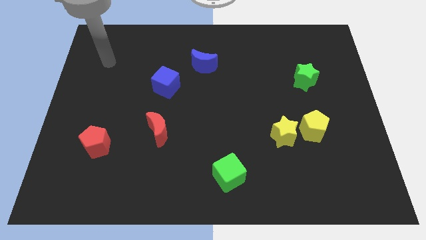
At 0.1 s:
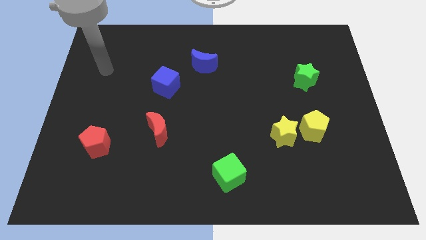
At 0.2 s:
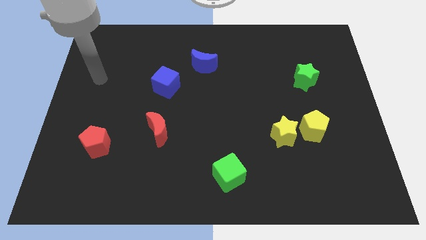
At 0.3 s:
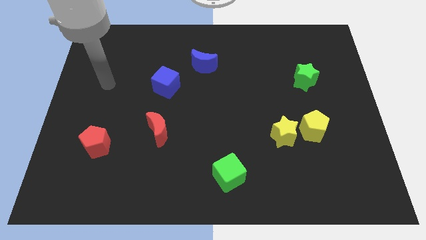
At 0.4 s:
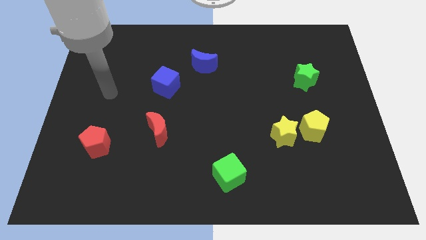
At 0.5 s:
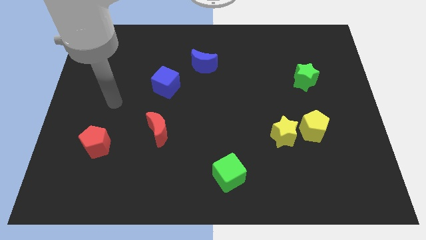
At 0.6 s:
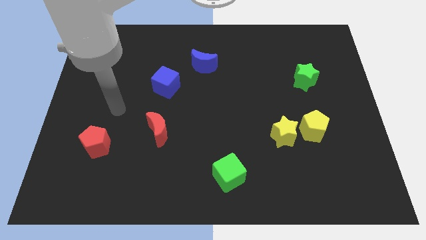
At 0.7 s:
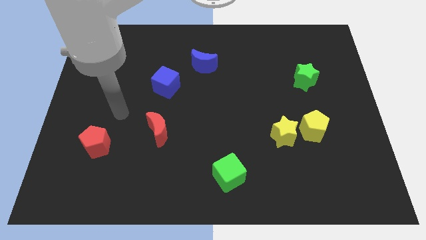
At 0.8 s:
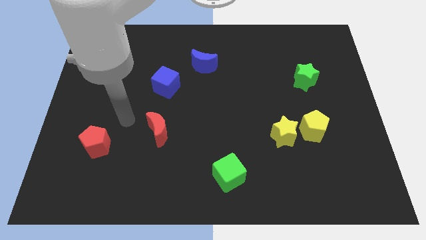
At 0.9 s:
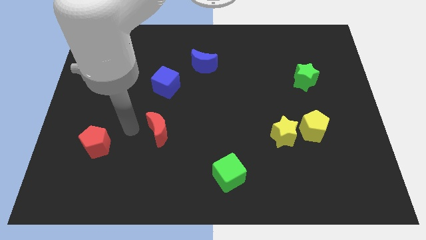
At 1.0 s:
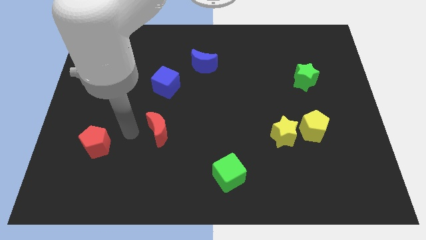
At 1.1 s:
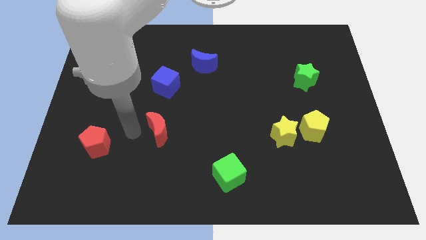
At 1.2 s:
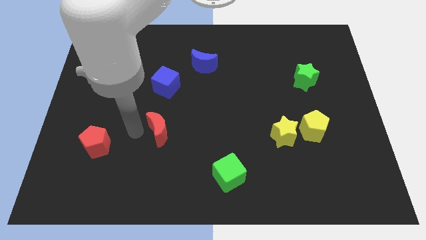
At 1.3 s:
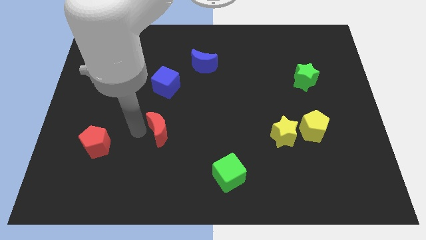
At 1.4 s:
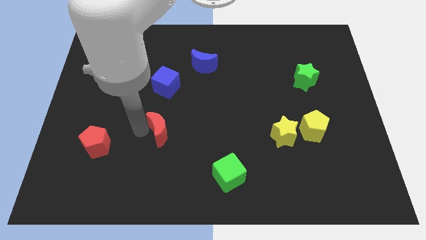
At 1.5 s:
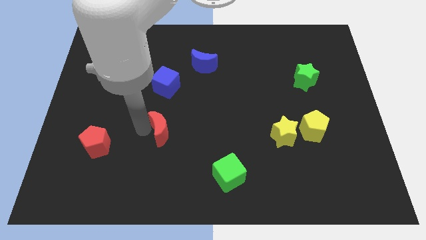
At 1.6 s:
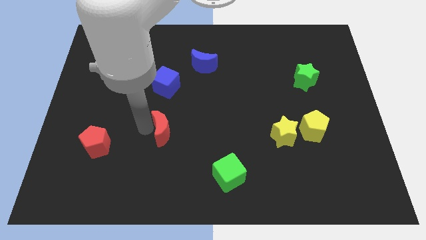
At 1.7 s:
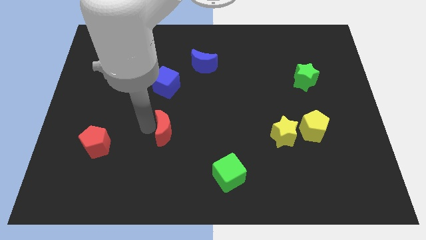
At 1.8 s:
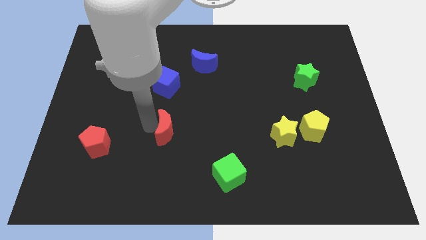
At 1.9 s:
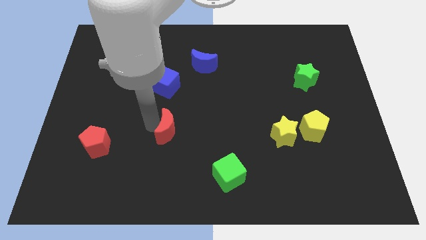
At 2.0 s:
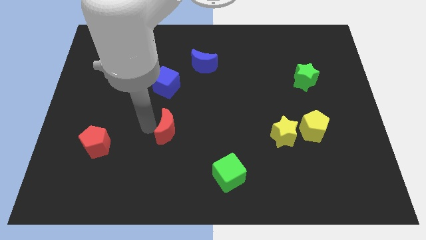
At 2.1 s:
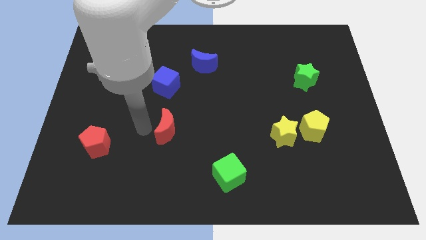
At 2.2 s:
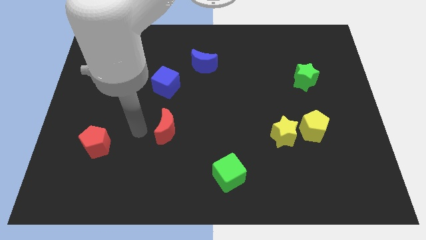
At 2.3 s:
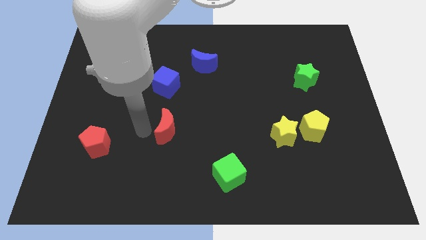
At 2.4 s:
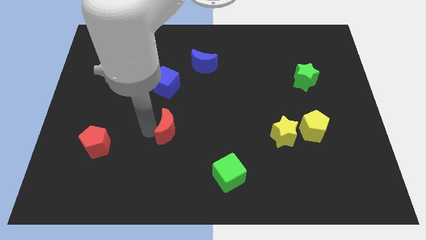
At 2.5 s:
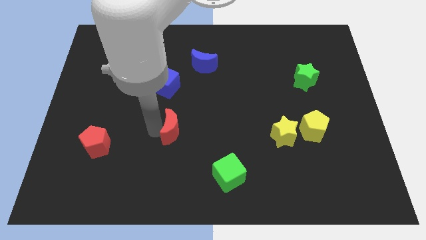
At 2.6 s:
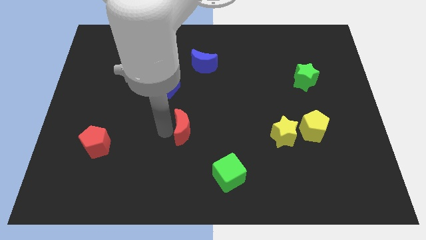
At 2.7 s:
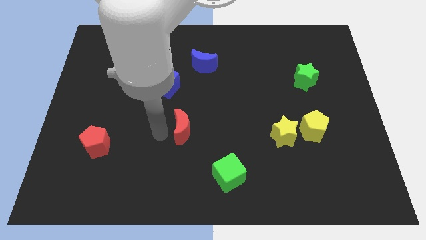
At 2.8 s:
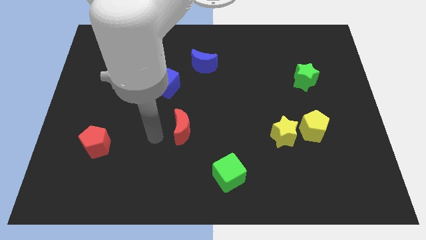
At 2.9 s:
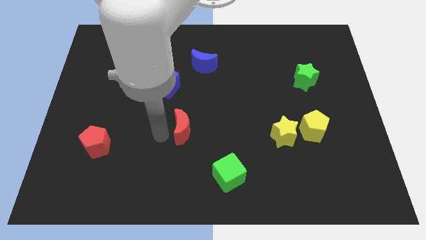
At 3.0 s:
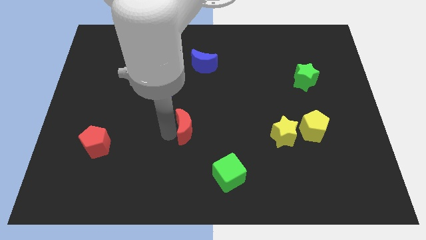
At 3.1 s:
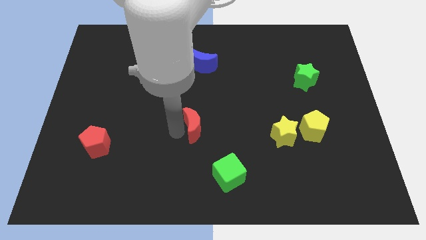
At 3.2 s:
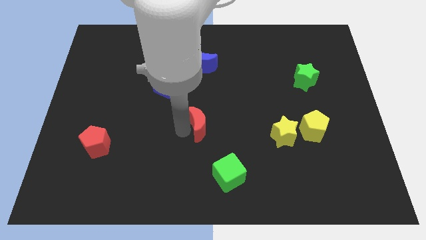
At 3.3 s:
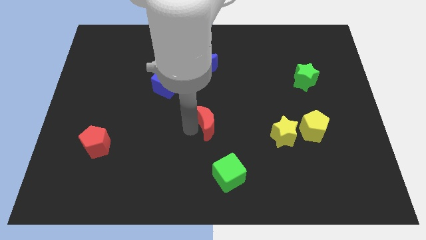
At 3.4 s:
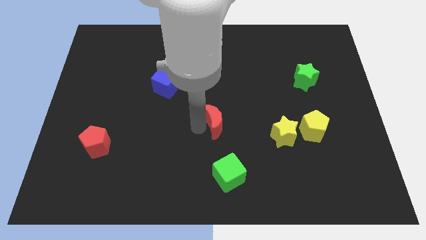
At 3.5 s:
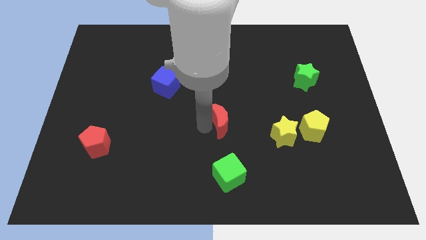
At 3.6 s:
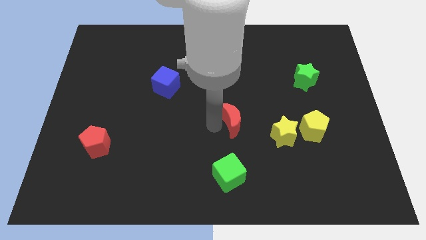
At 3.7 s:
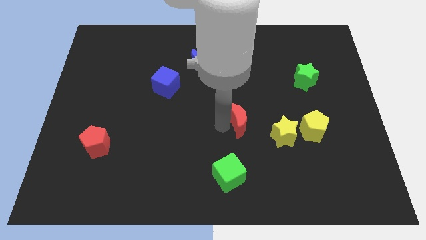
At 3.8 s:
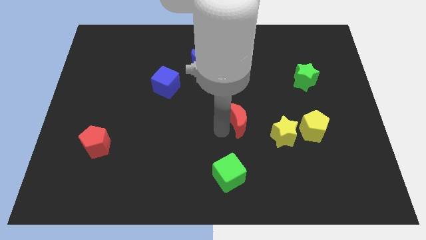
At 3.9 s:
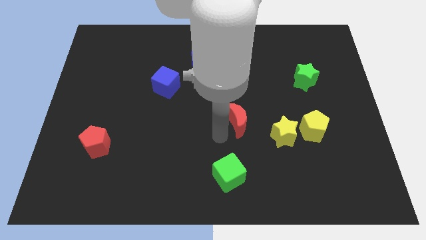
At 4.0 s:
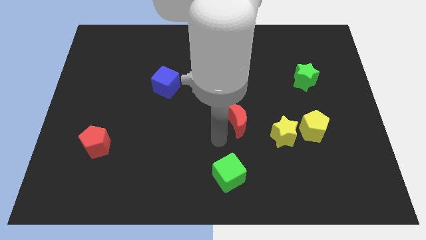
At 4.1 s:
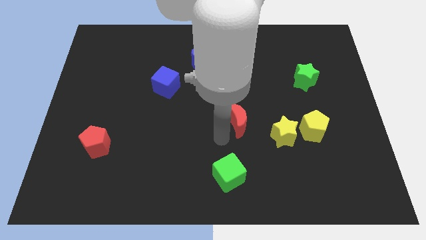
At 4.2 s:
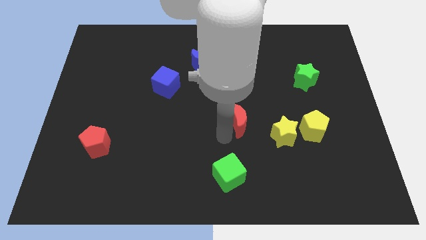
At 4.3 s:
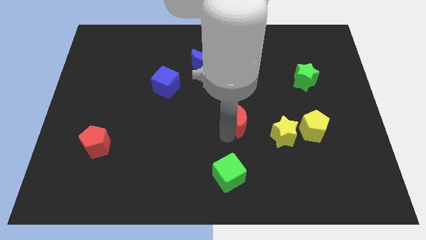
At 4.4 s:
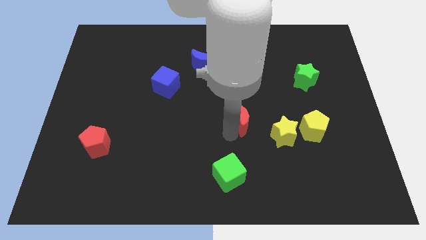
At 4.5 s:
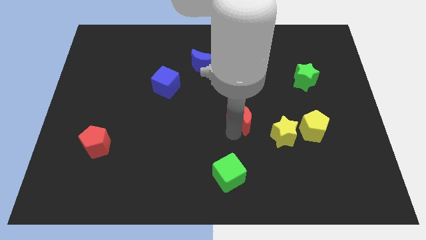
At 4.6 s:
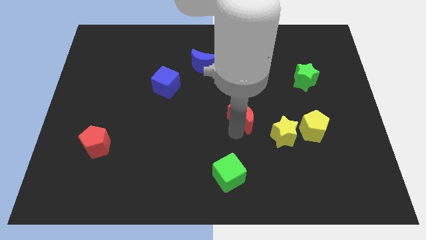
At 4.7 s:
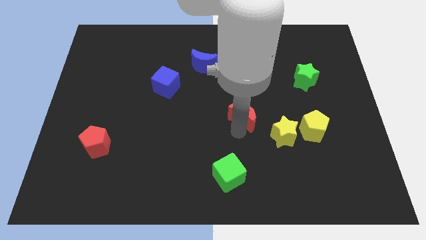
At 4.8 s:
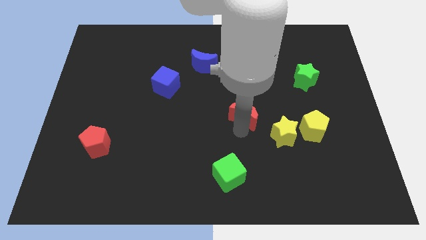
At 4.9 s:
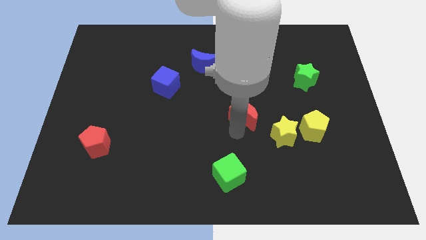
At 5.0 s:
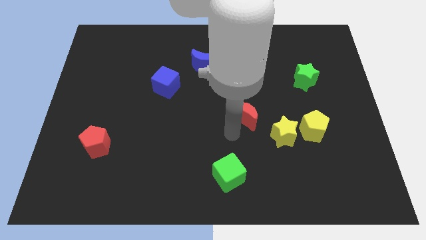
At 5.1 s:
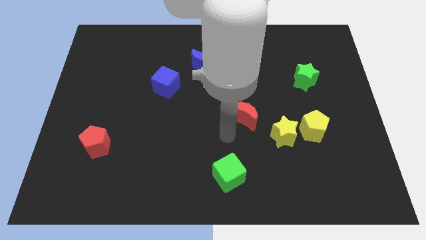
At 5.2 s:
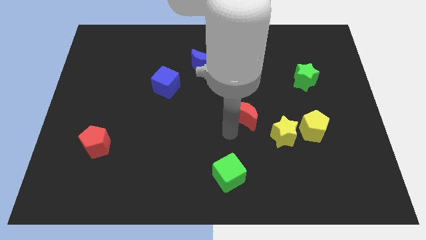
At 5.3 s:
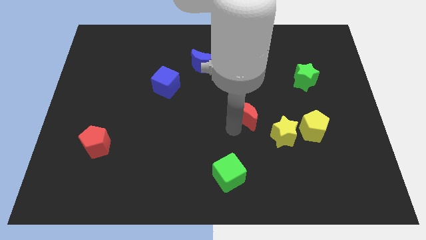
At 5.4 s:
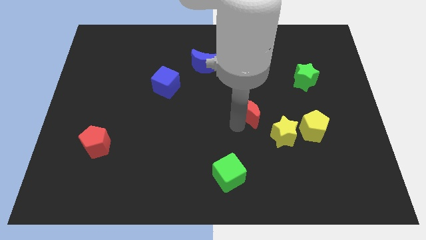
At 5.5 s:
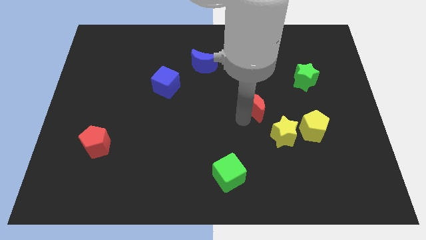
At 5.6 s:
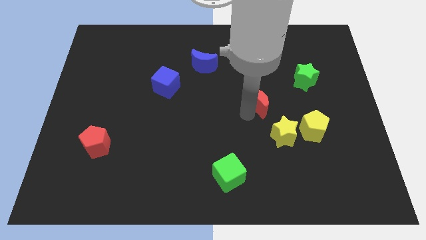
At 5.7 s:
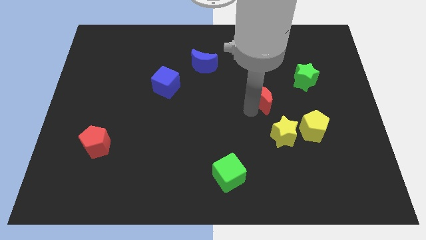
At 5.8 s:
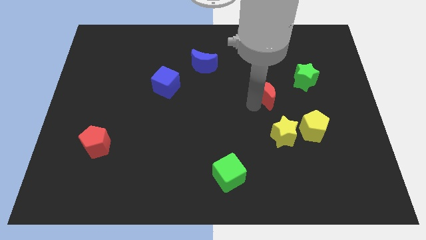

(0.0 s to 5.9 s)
push the red moon to the bottom left of the green star

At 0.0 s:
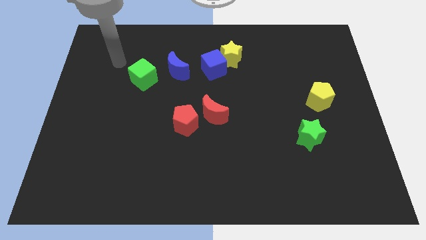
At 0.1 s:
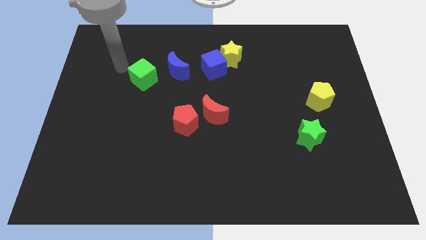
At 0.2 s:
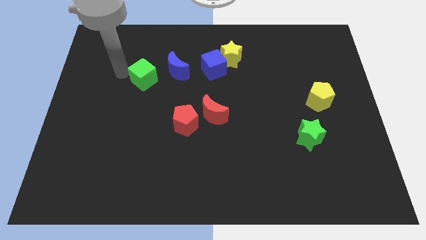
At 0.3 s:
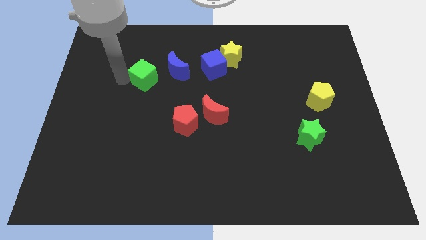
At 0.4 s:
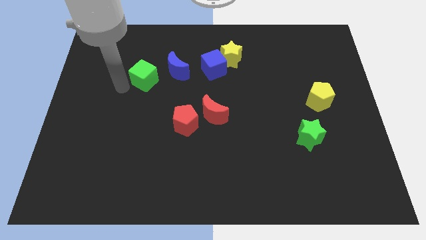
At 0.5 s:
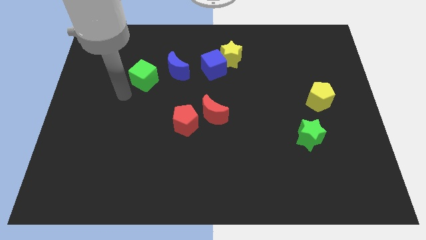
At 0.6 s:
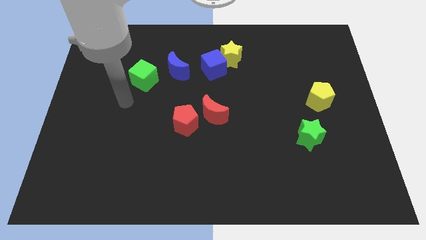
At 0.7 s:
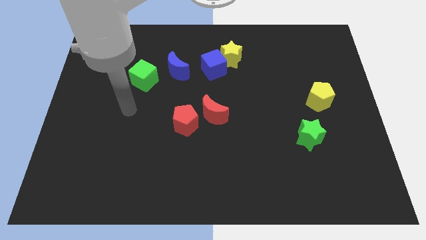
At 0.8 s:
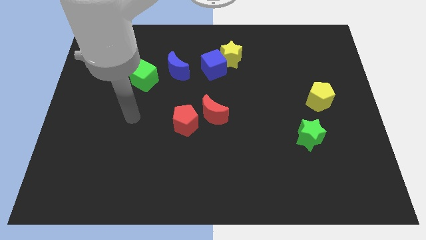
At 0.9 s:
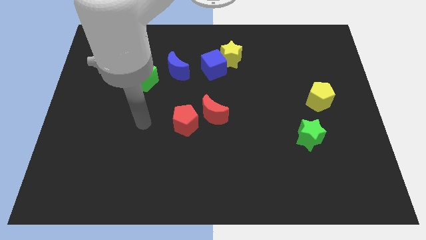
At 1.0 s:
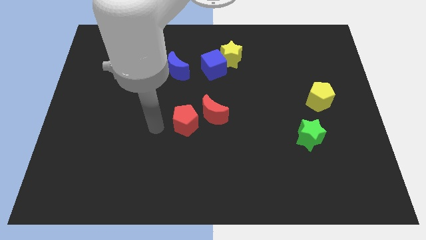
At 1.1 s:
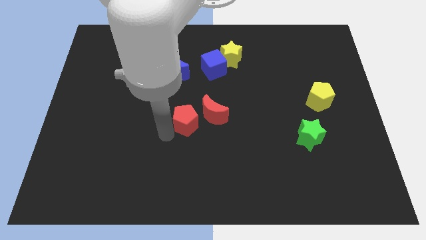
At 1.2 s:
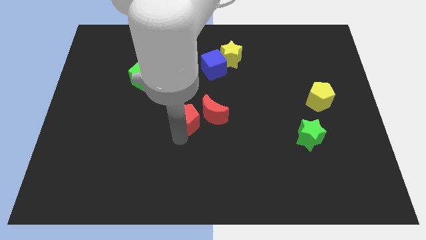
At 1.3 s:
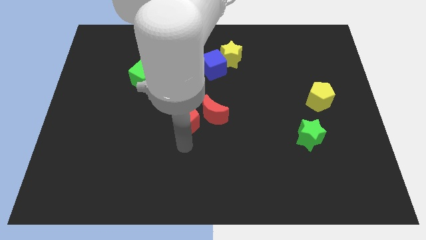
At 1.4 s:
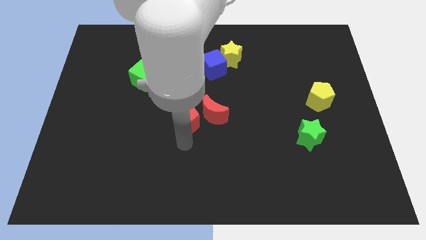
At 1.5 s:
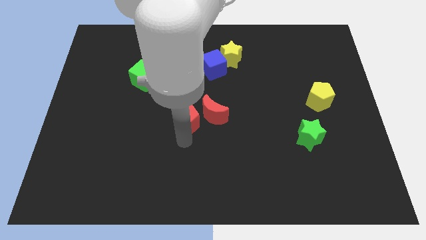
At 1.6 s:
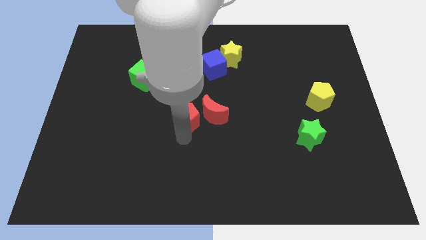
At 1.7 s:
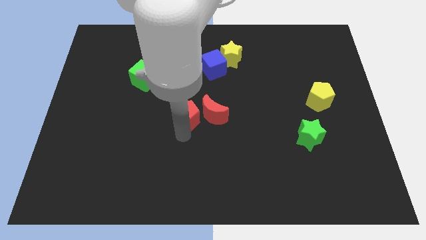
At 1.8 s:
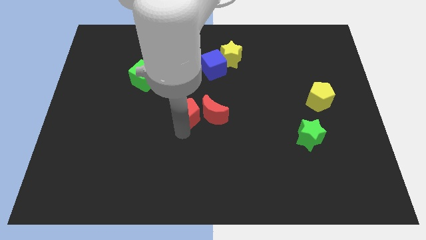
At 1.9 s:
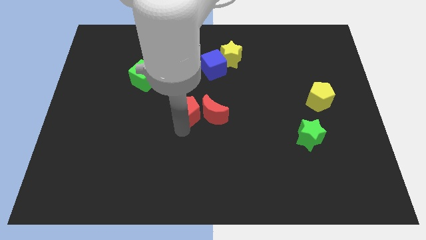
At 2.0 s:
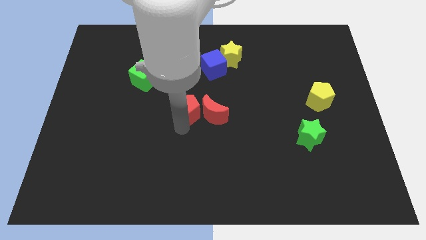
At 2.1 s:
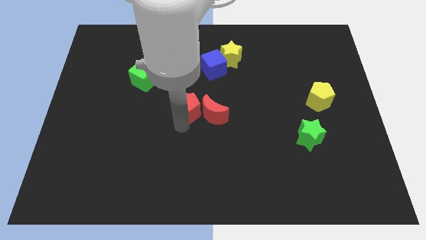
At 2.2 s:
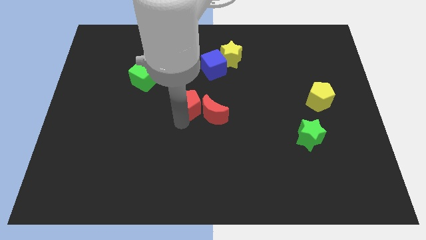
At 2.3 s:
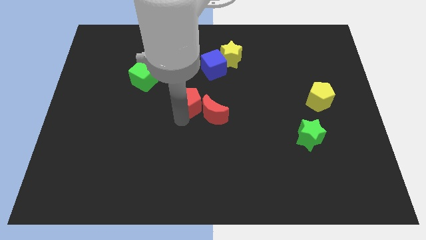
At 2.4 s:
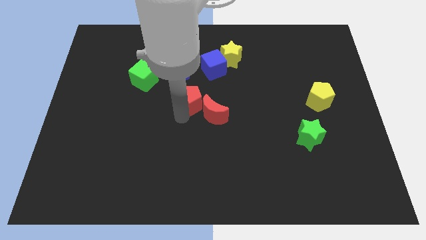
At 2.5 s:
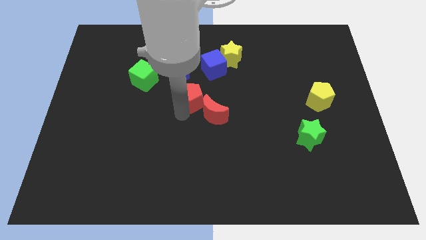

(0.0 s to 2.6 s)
move the red pentagon to the bottom left side of the blue cube
